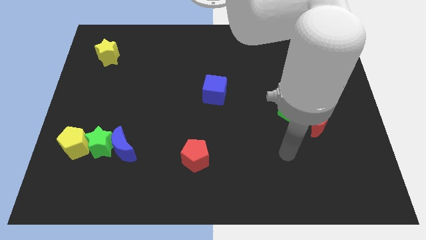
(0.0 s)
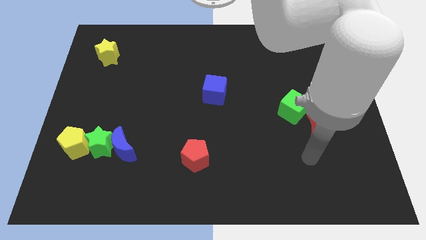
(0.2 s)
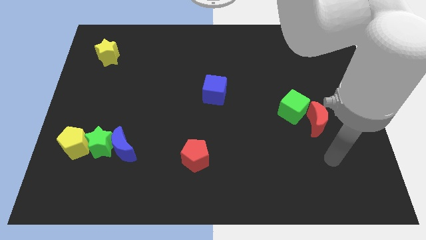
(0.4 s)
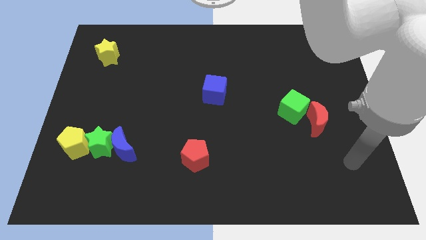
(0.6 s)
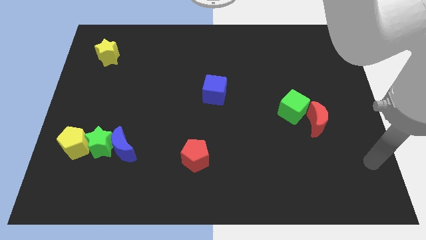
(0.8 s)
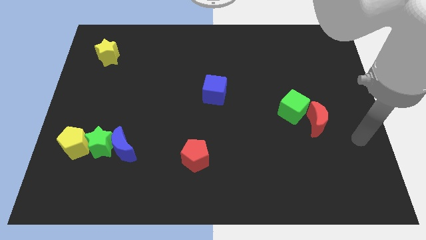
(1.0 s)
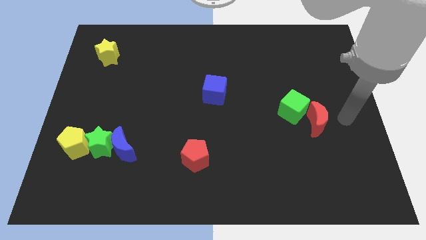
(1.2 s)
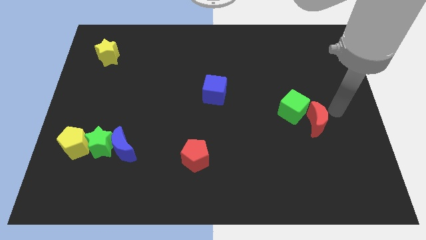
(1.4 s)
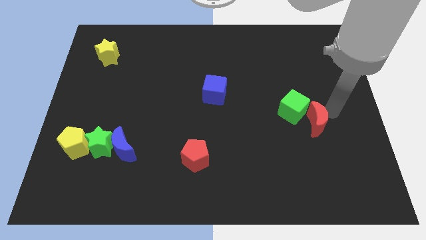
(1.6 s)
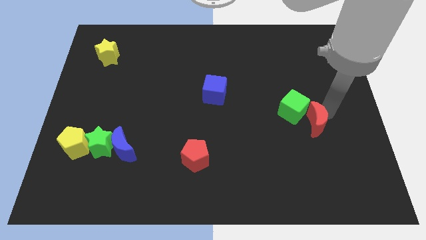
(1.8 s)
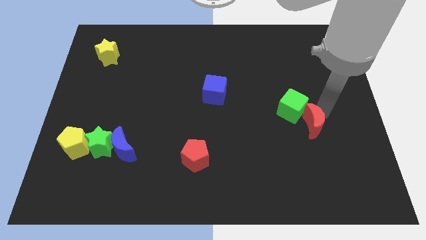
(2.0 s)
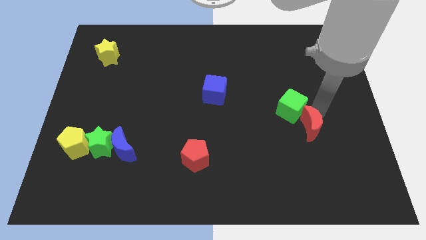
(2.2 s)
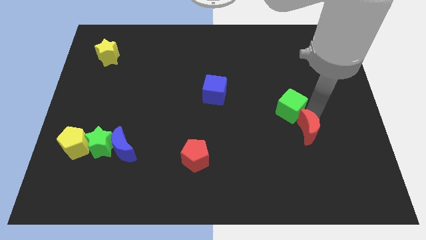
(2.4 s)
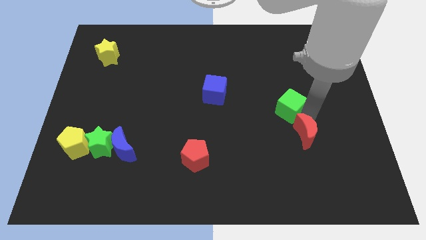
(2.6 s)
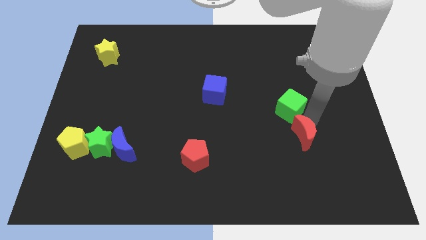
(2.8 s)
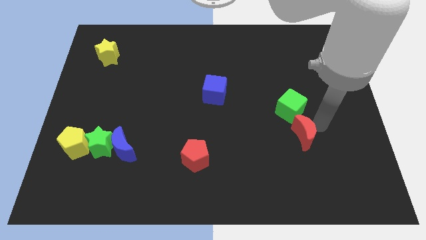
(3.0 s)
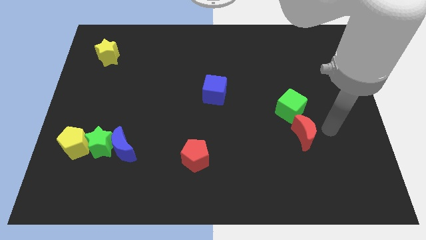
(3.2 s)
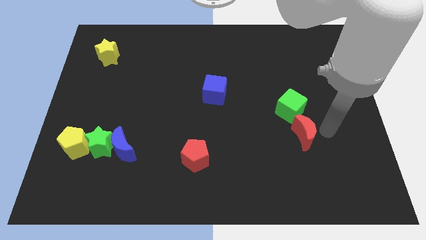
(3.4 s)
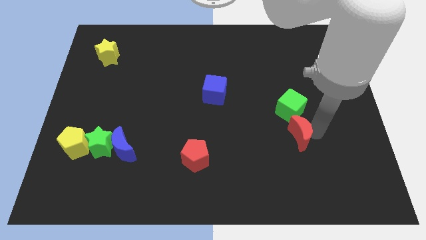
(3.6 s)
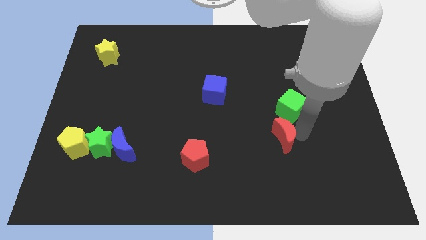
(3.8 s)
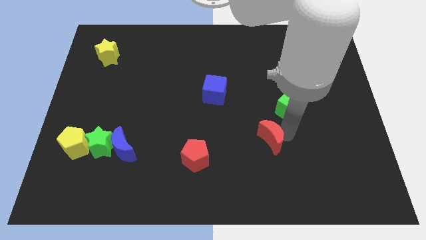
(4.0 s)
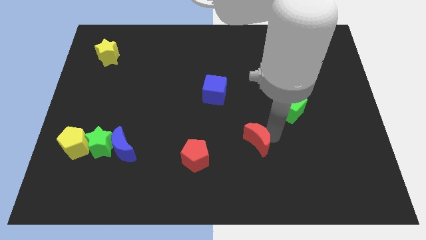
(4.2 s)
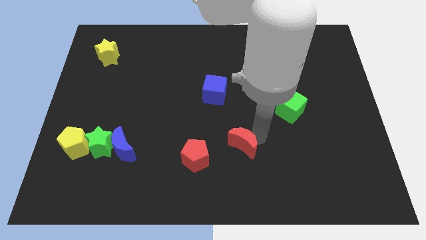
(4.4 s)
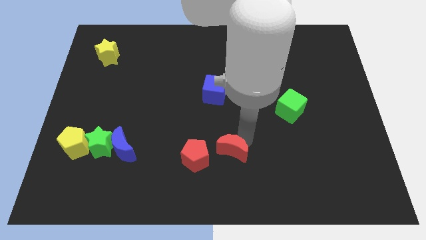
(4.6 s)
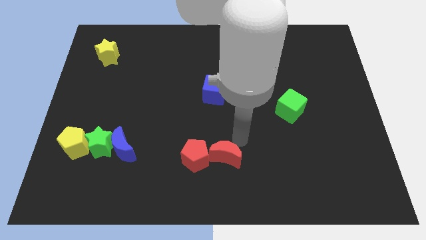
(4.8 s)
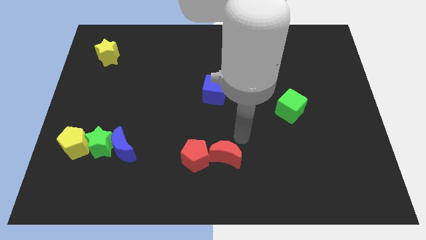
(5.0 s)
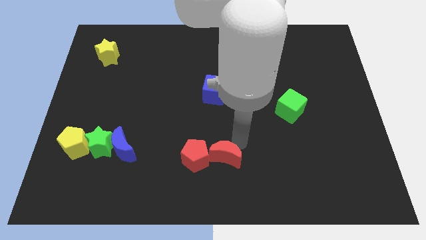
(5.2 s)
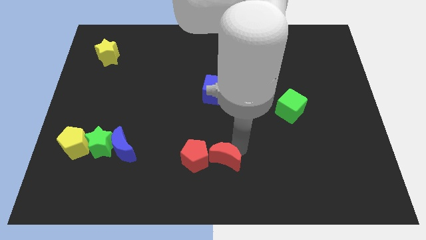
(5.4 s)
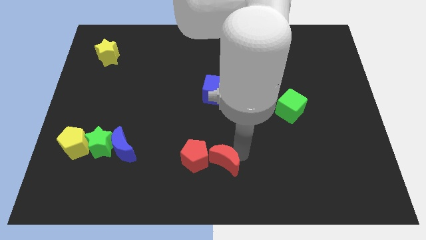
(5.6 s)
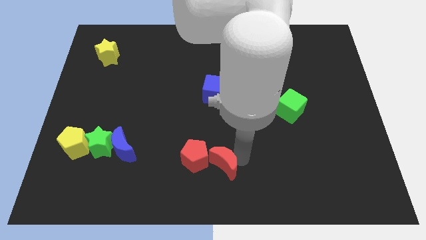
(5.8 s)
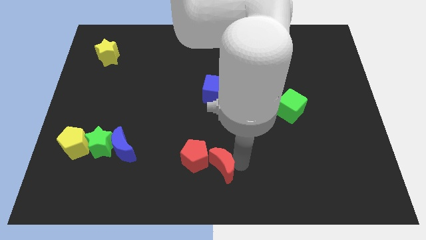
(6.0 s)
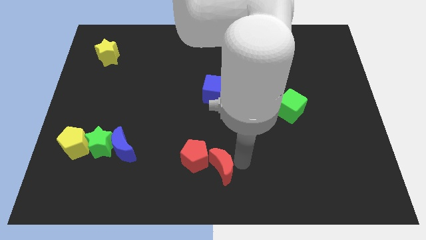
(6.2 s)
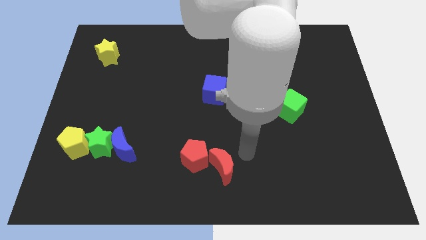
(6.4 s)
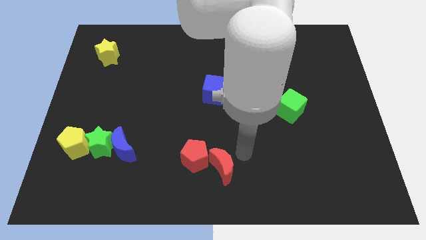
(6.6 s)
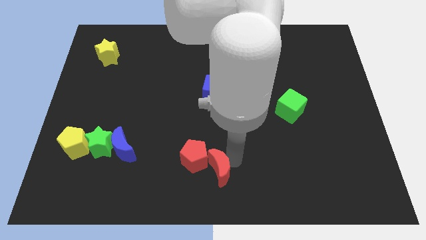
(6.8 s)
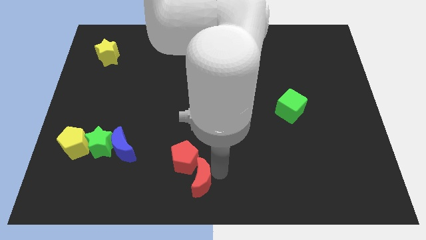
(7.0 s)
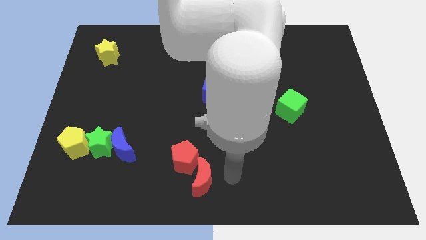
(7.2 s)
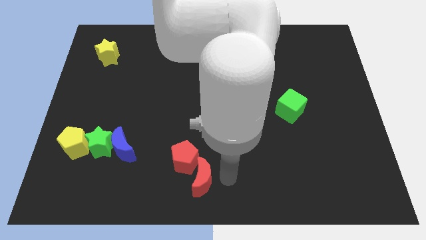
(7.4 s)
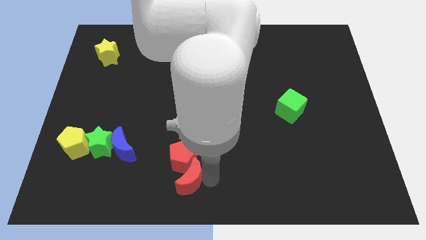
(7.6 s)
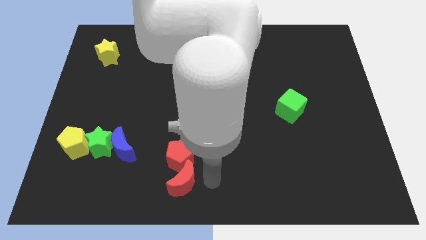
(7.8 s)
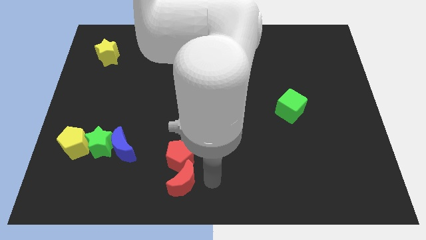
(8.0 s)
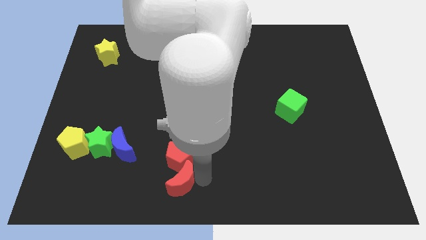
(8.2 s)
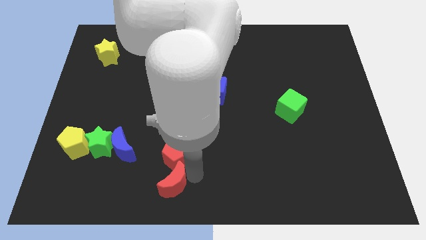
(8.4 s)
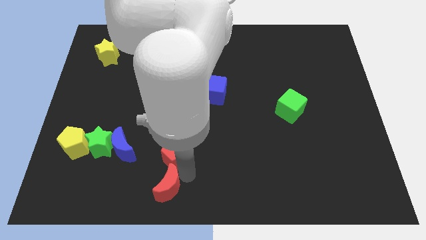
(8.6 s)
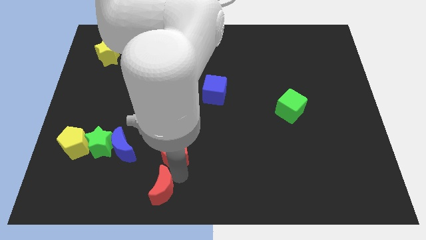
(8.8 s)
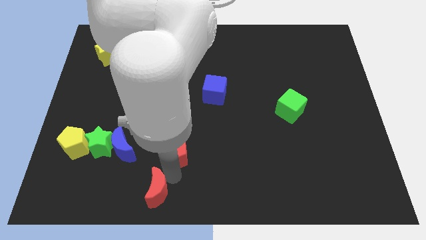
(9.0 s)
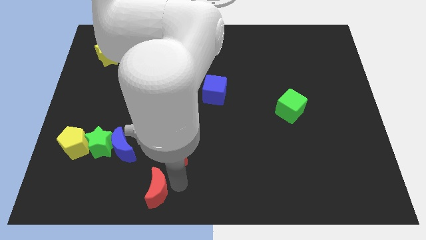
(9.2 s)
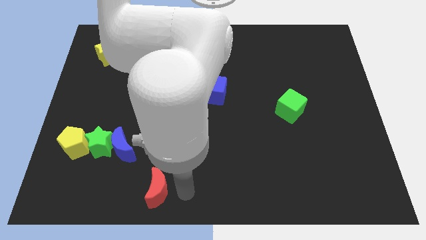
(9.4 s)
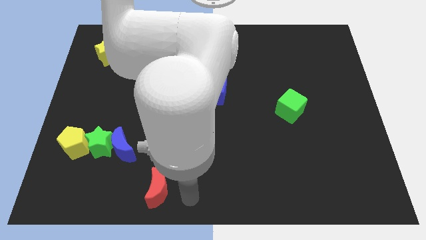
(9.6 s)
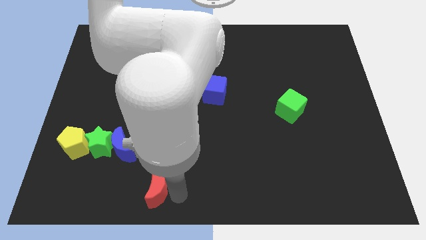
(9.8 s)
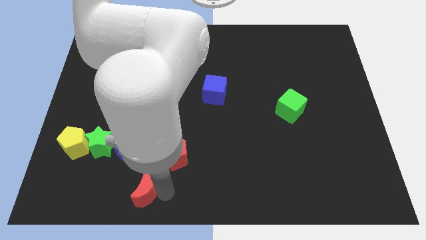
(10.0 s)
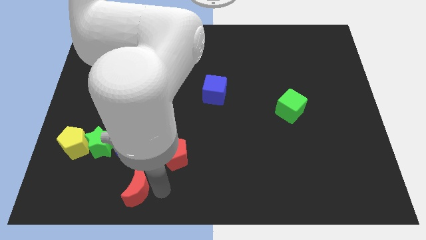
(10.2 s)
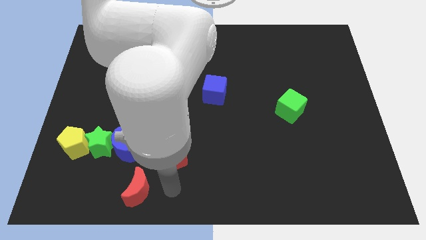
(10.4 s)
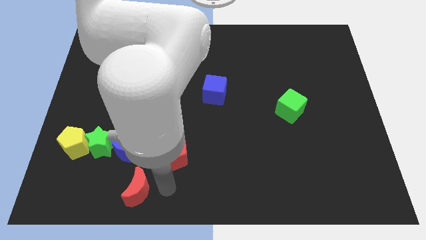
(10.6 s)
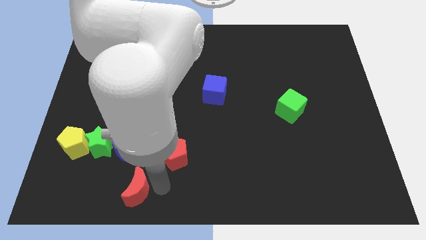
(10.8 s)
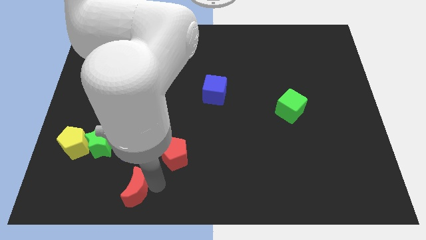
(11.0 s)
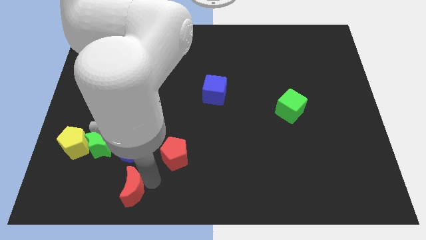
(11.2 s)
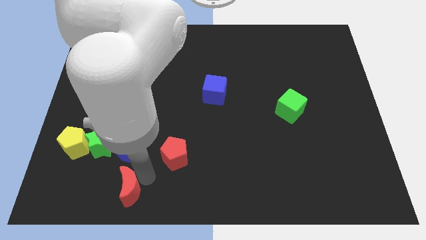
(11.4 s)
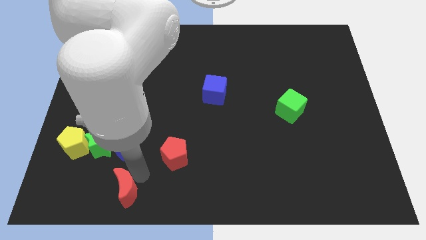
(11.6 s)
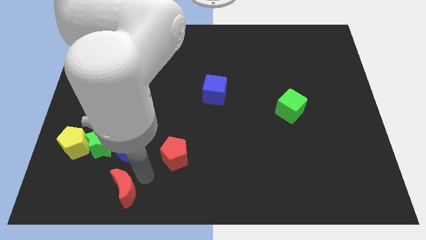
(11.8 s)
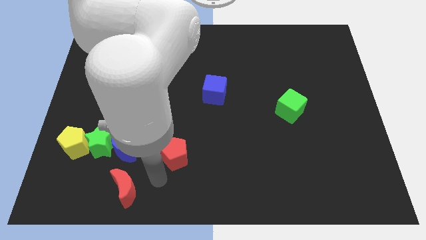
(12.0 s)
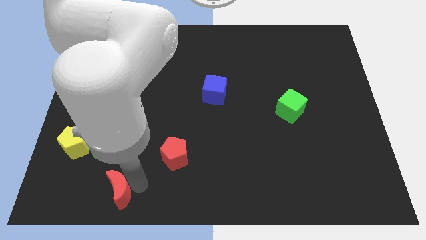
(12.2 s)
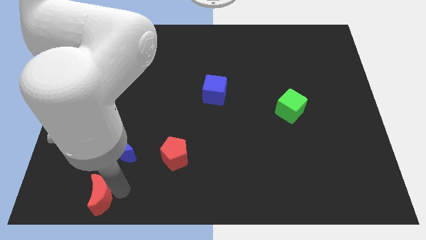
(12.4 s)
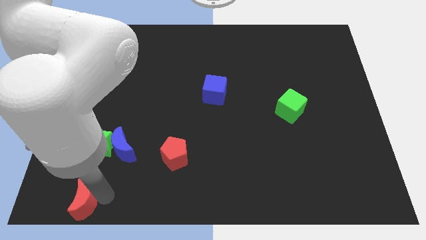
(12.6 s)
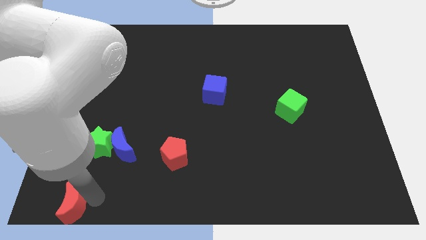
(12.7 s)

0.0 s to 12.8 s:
push the red moon to the bottom left
